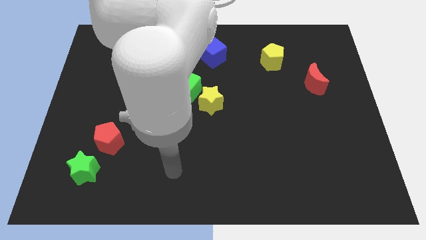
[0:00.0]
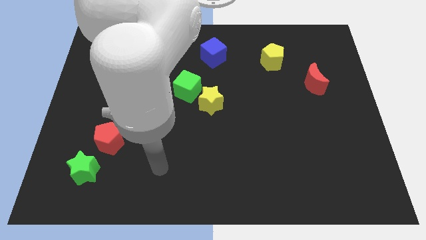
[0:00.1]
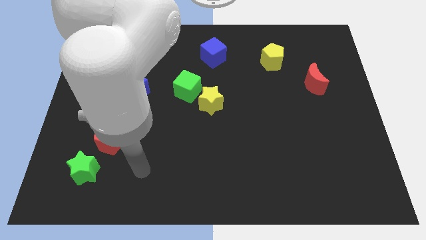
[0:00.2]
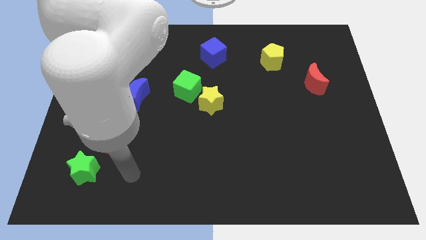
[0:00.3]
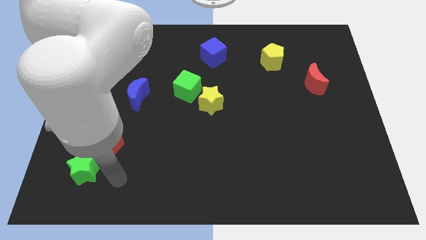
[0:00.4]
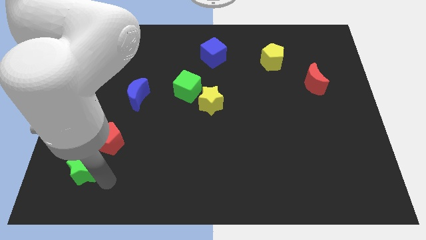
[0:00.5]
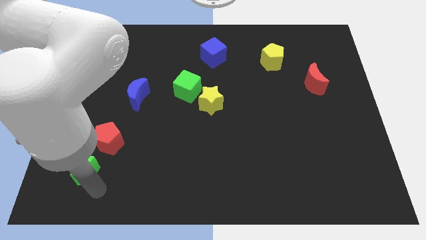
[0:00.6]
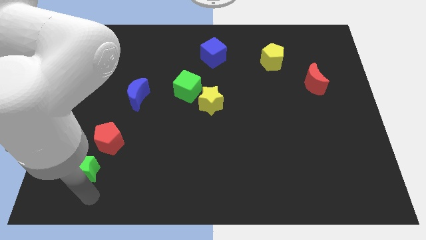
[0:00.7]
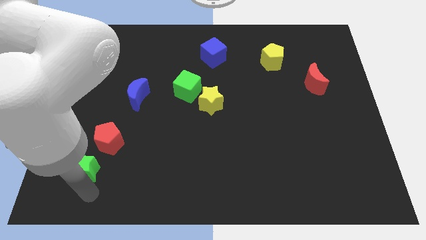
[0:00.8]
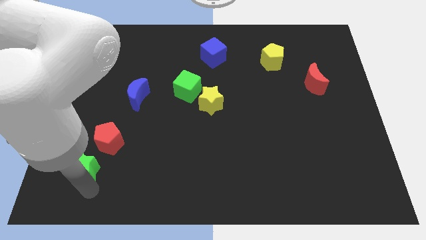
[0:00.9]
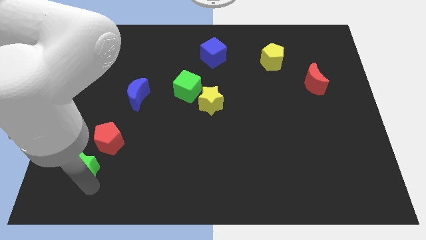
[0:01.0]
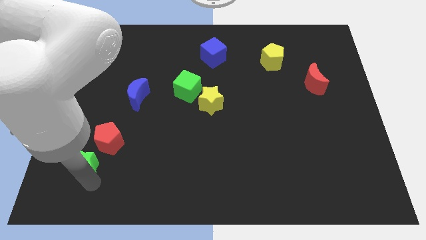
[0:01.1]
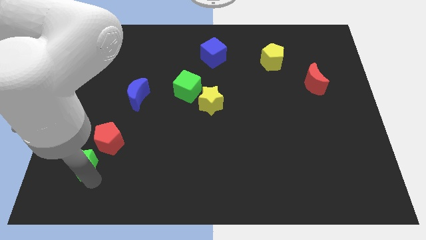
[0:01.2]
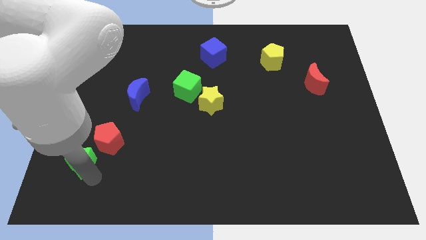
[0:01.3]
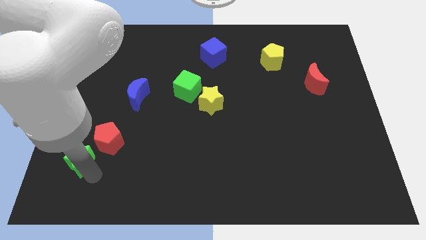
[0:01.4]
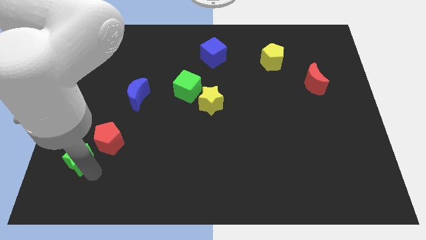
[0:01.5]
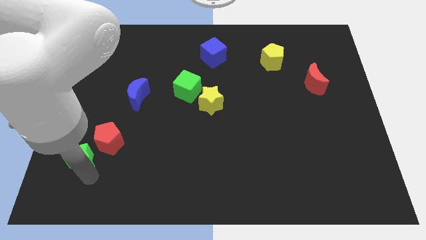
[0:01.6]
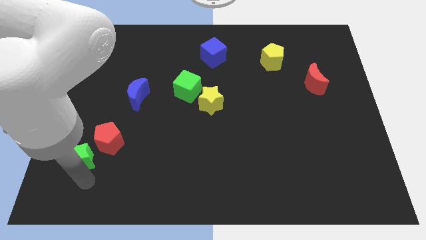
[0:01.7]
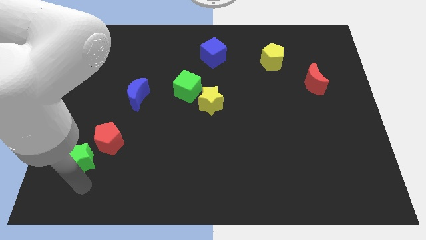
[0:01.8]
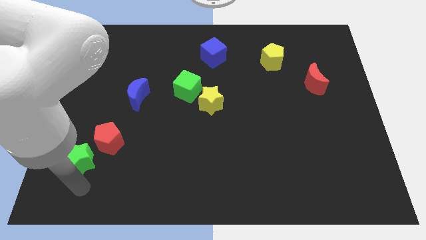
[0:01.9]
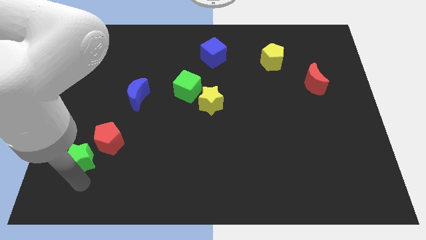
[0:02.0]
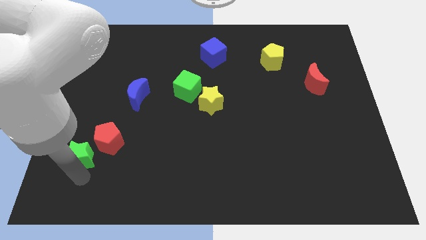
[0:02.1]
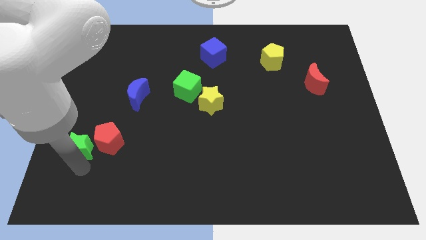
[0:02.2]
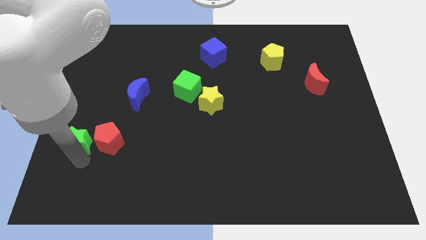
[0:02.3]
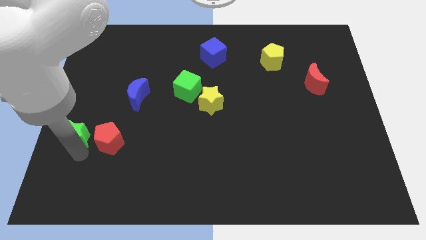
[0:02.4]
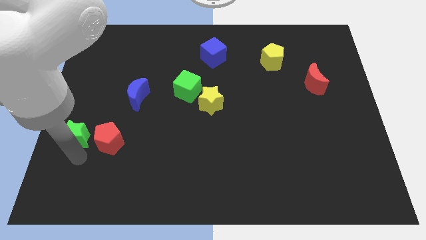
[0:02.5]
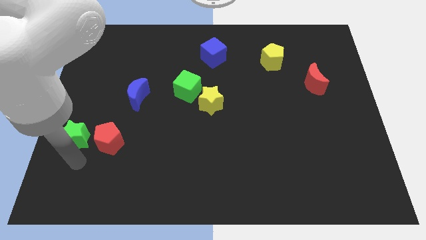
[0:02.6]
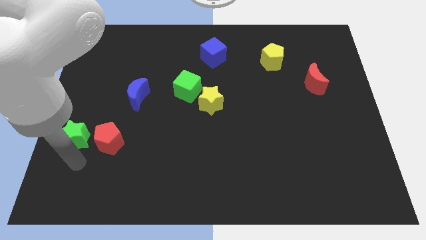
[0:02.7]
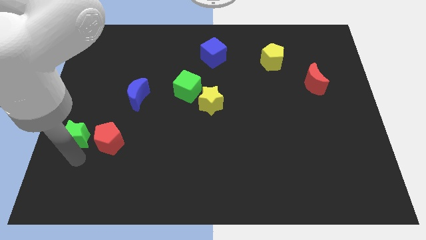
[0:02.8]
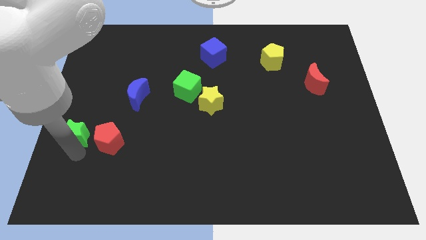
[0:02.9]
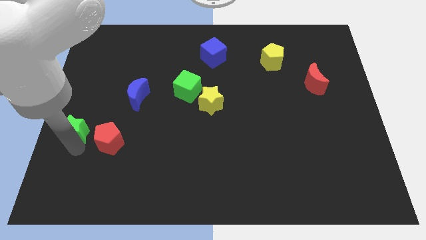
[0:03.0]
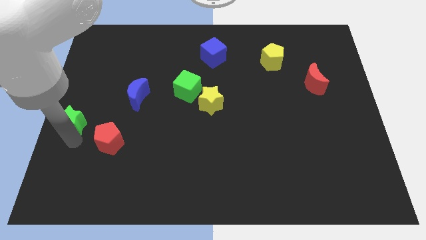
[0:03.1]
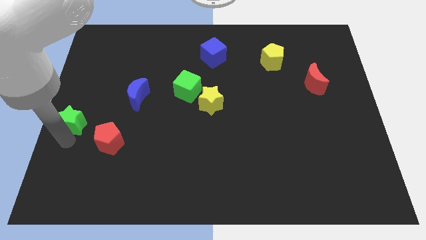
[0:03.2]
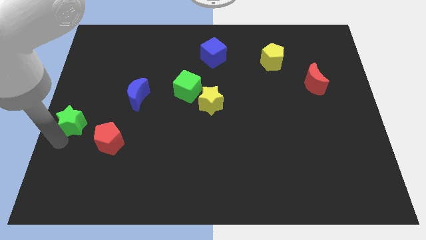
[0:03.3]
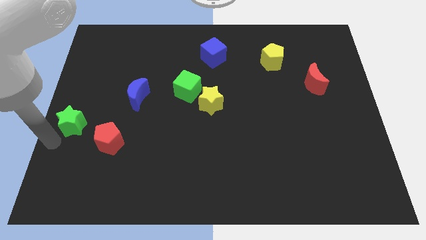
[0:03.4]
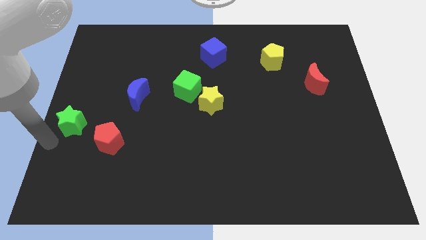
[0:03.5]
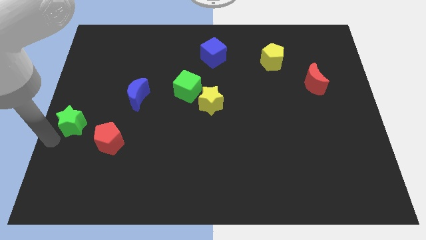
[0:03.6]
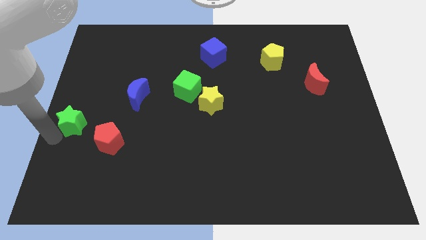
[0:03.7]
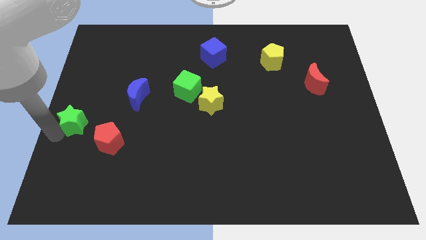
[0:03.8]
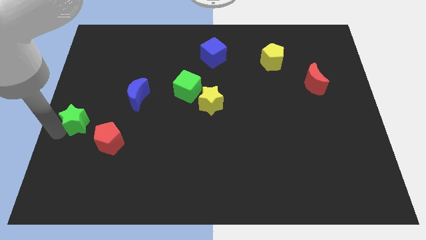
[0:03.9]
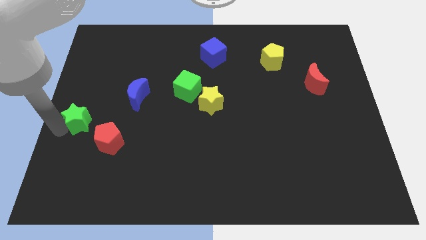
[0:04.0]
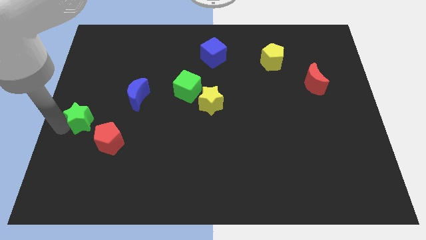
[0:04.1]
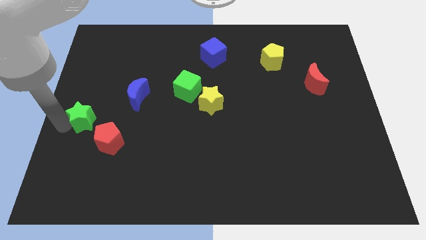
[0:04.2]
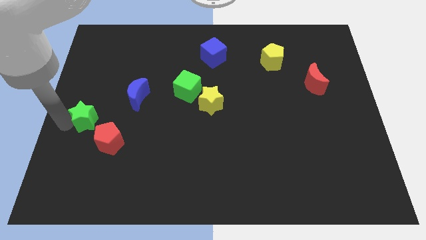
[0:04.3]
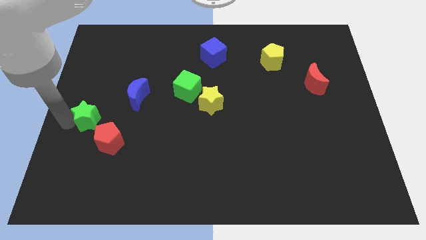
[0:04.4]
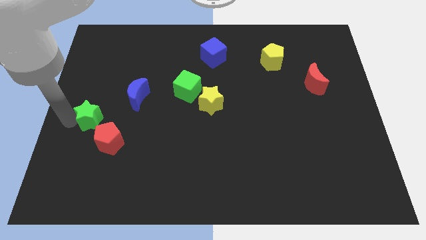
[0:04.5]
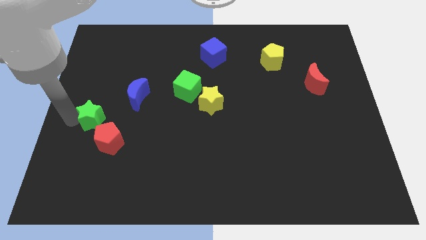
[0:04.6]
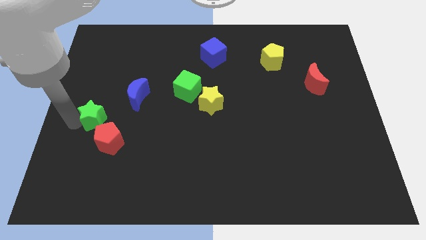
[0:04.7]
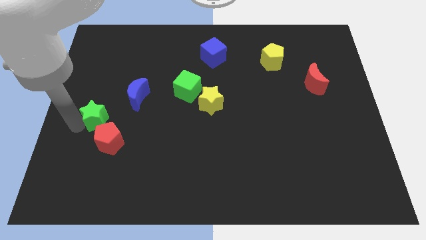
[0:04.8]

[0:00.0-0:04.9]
slide the green star above the red pentagon

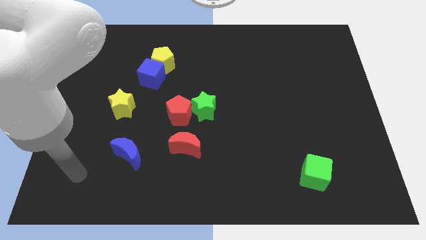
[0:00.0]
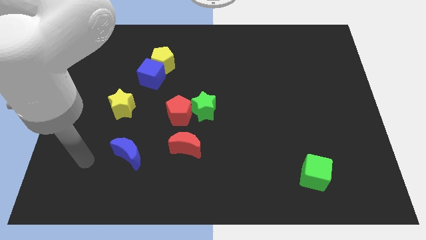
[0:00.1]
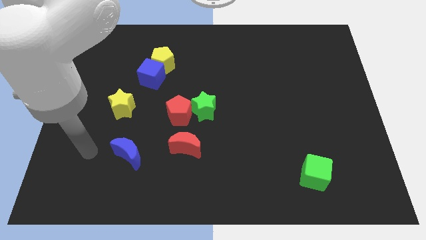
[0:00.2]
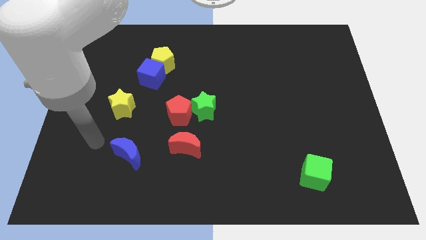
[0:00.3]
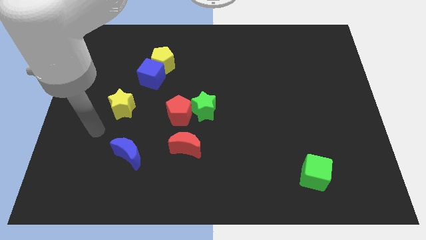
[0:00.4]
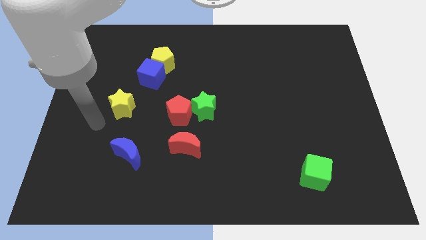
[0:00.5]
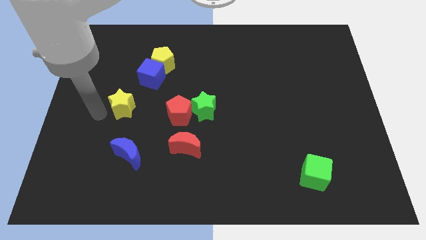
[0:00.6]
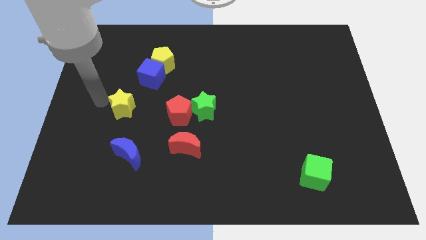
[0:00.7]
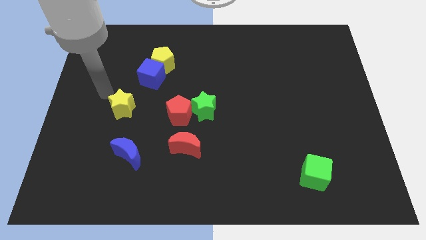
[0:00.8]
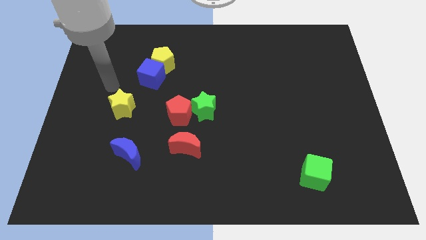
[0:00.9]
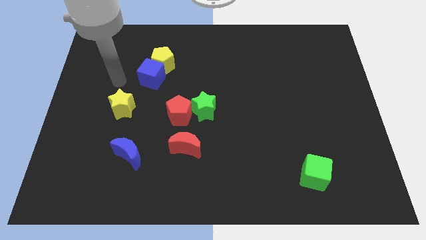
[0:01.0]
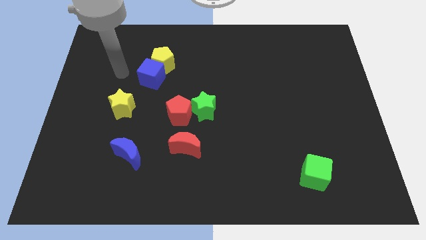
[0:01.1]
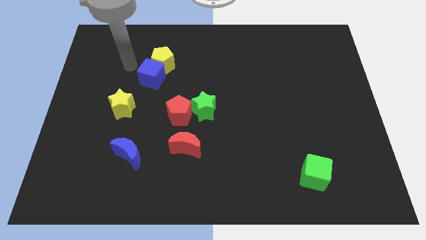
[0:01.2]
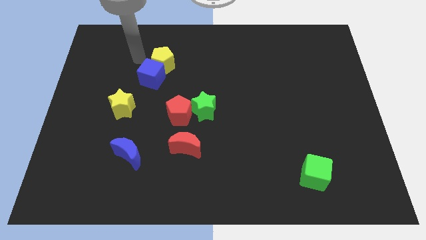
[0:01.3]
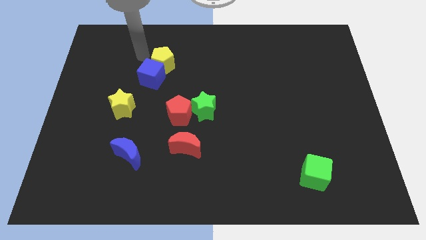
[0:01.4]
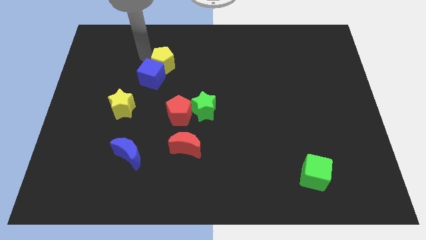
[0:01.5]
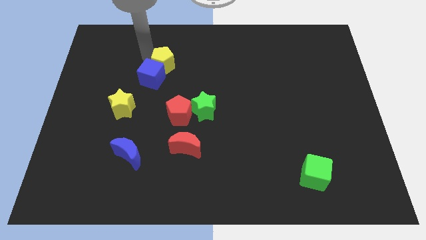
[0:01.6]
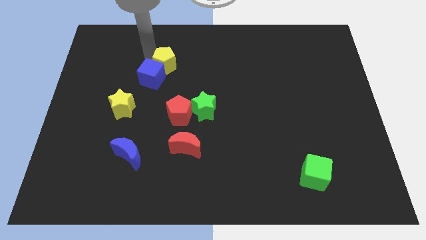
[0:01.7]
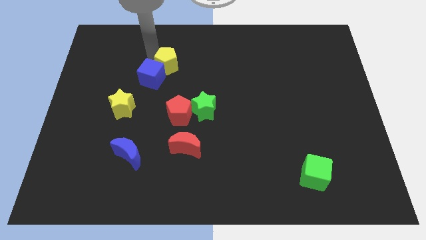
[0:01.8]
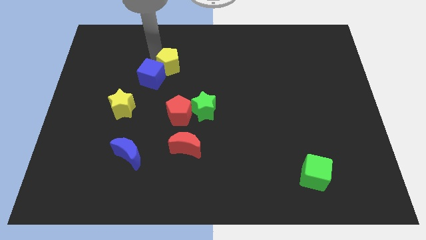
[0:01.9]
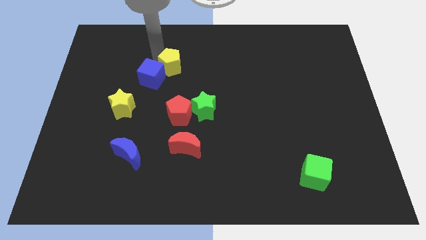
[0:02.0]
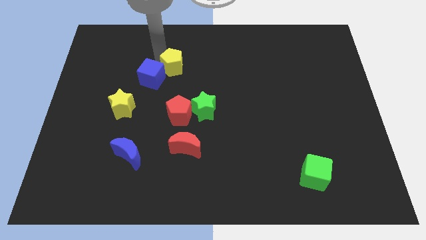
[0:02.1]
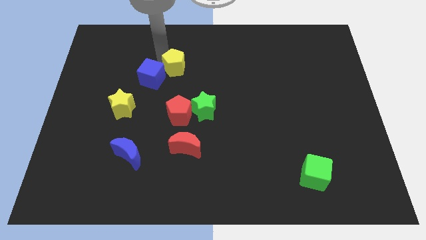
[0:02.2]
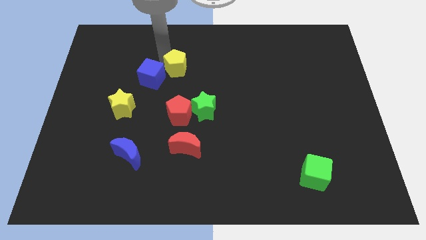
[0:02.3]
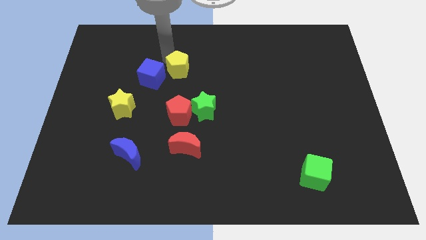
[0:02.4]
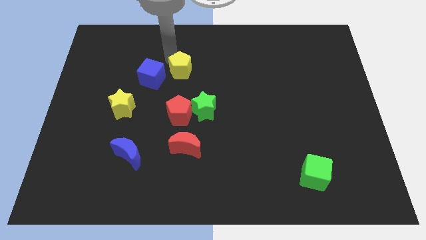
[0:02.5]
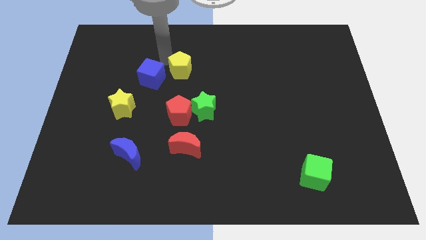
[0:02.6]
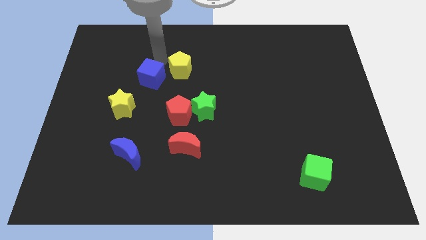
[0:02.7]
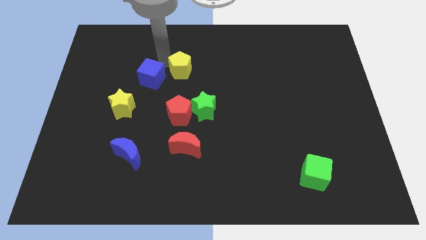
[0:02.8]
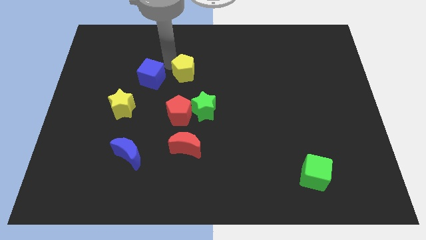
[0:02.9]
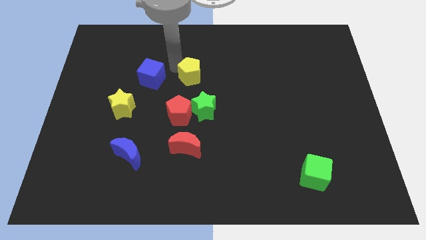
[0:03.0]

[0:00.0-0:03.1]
push the yellow pentagon above the green star
